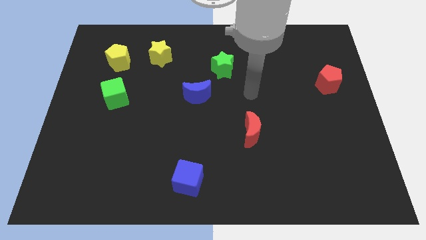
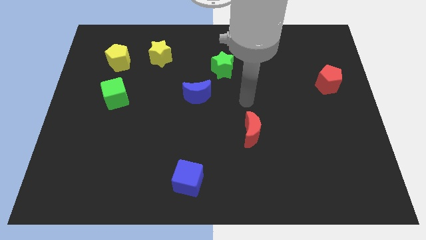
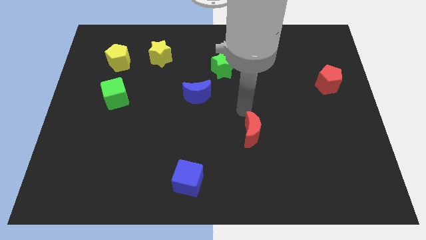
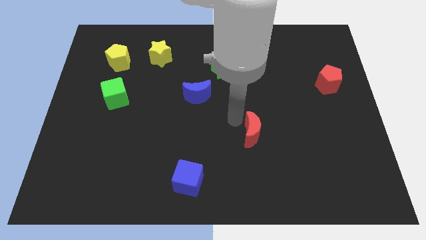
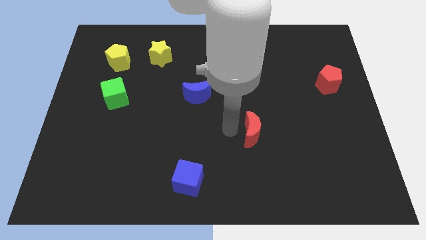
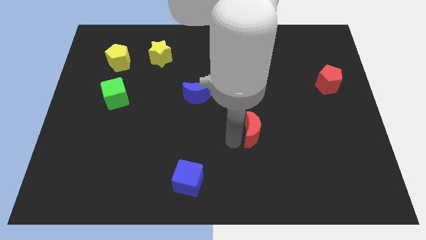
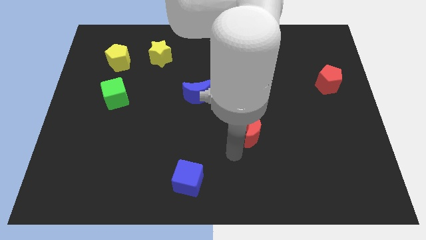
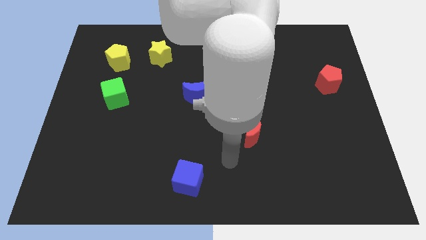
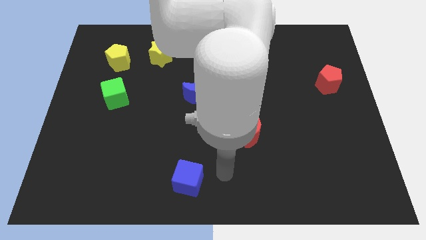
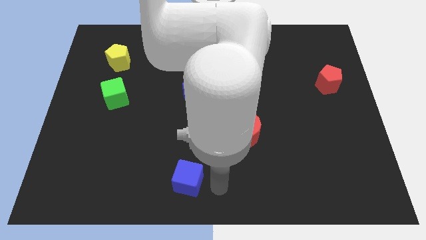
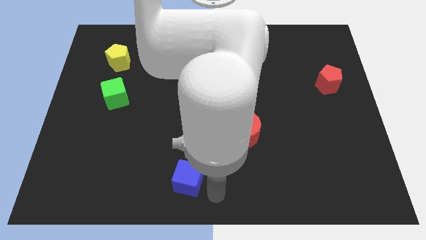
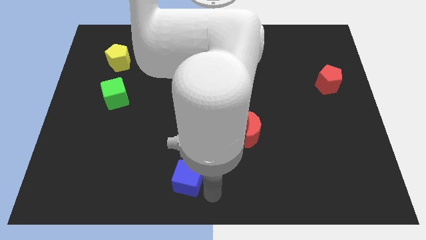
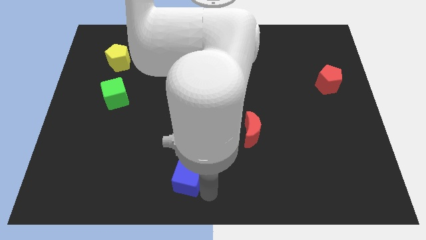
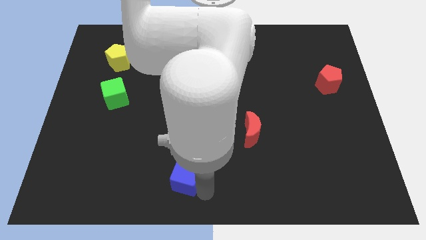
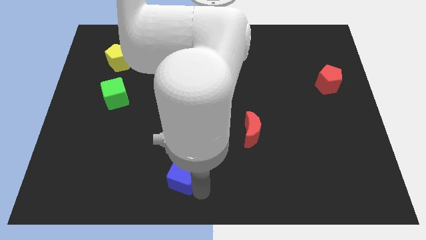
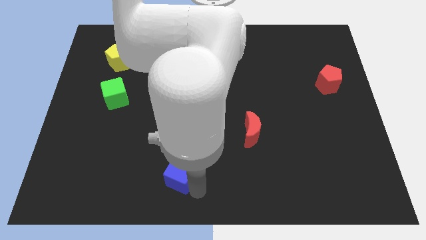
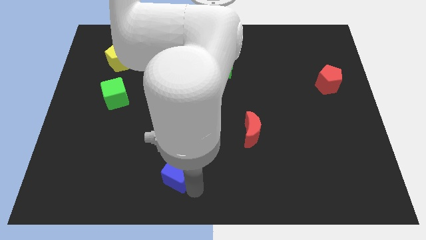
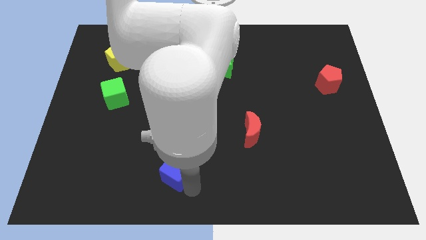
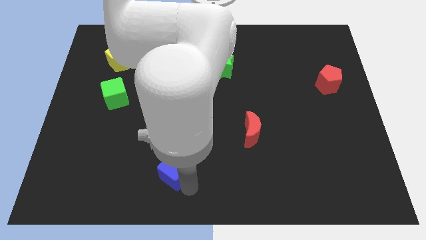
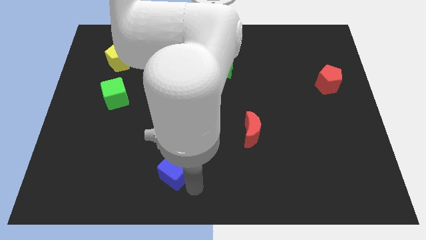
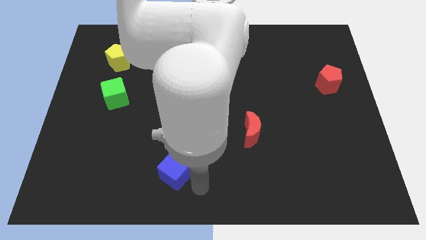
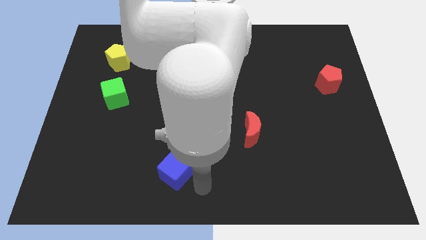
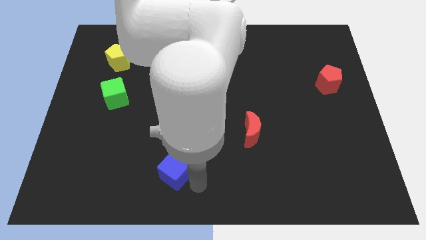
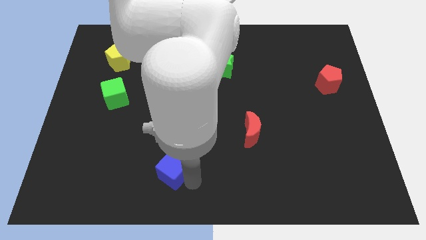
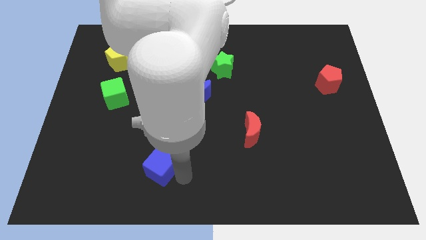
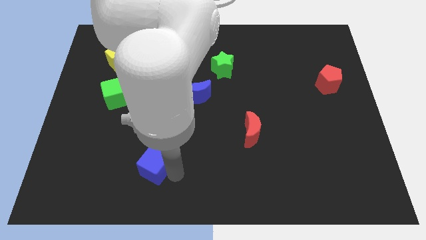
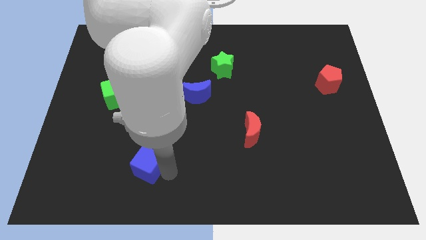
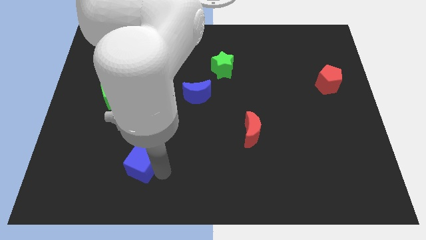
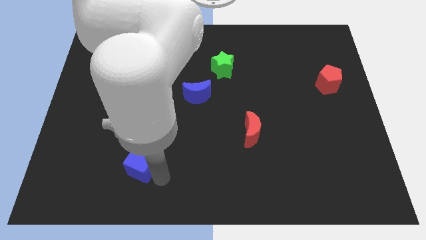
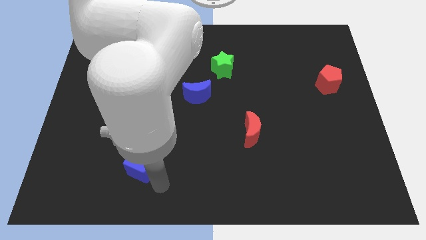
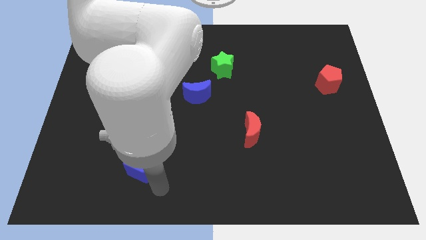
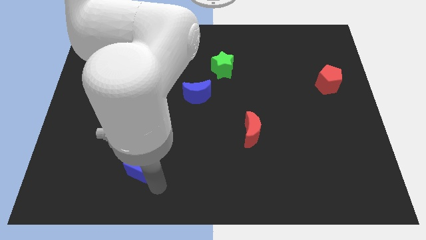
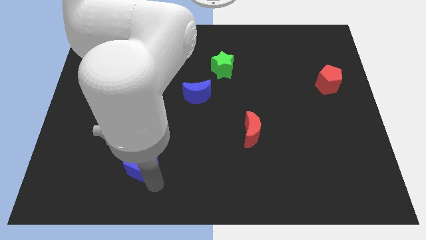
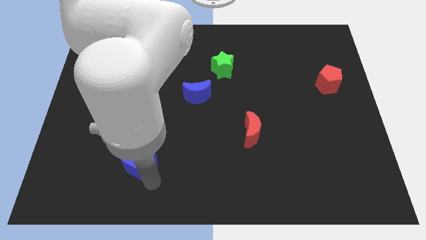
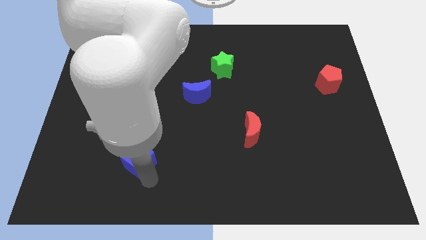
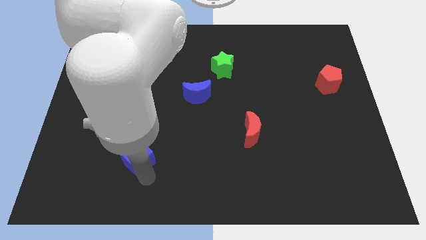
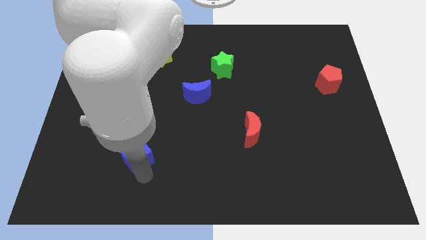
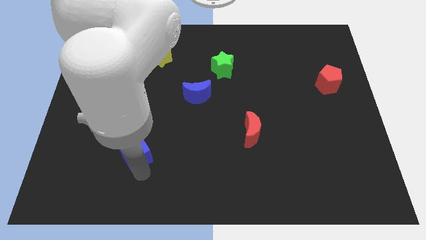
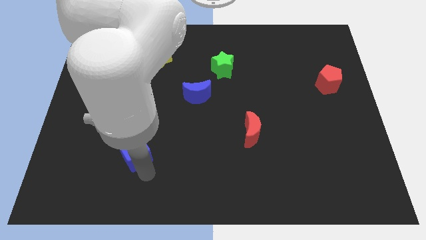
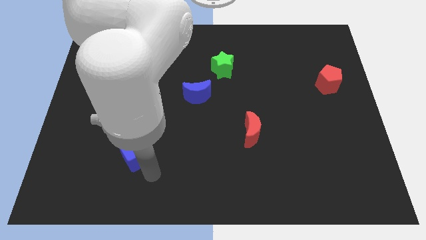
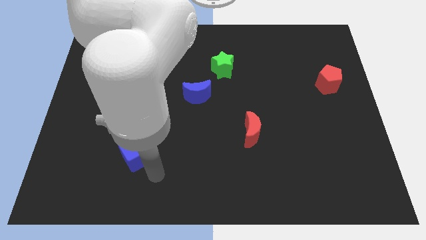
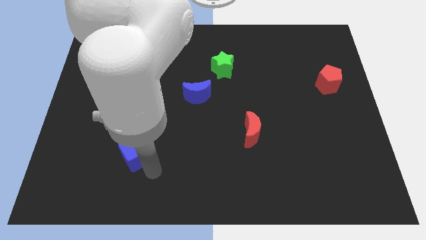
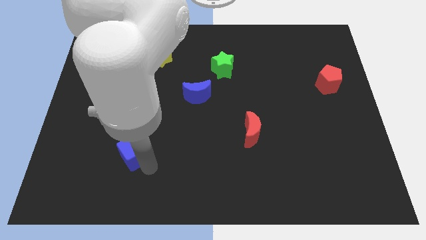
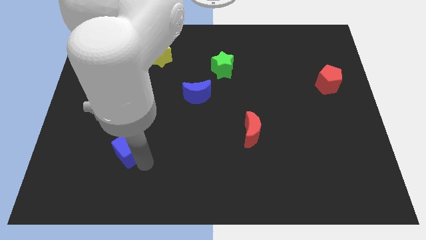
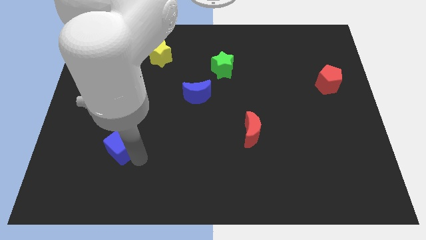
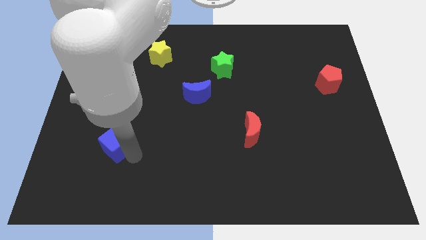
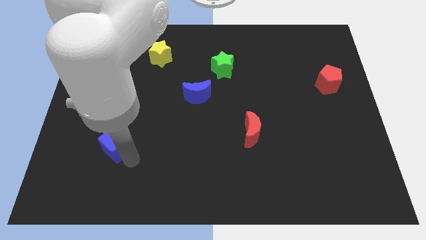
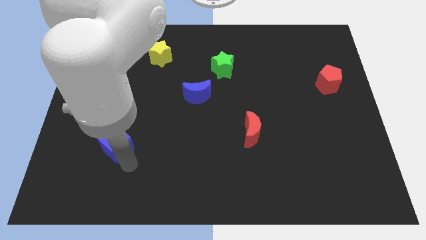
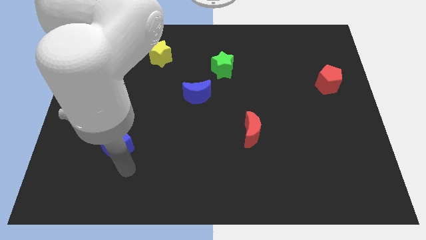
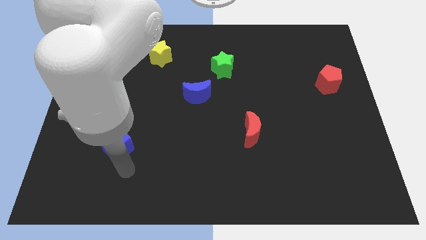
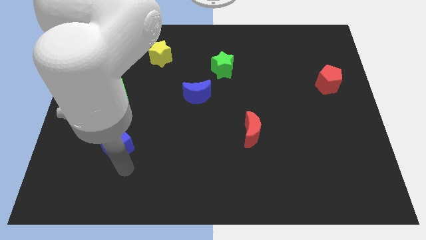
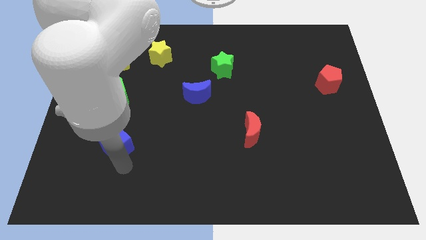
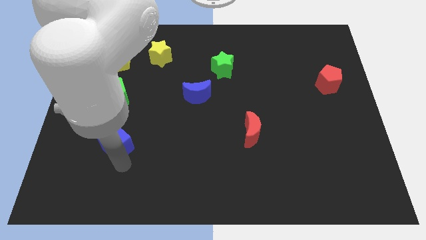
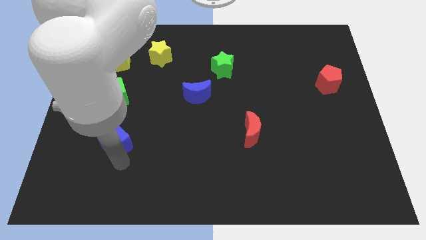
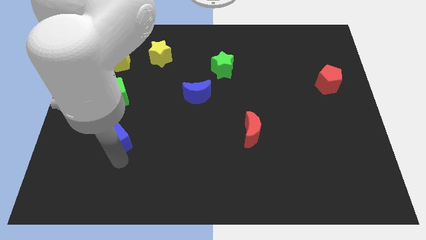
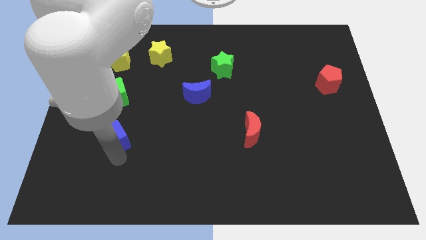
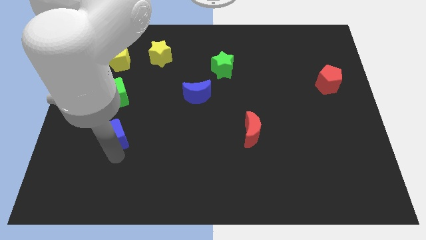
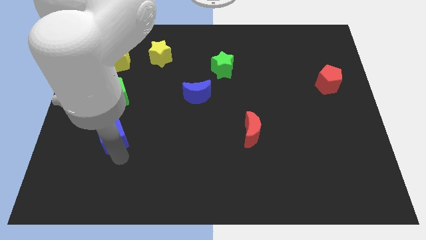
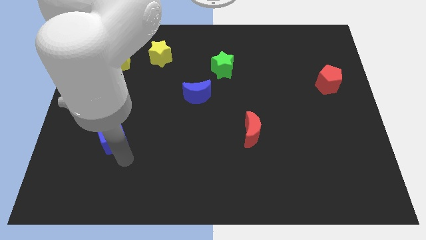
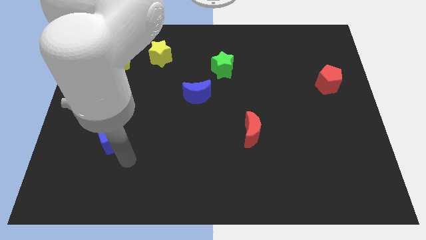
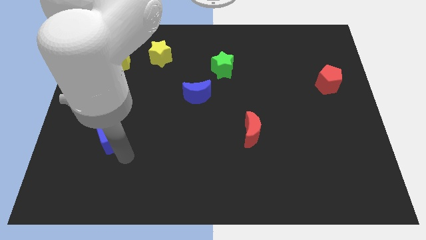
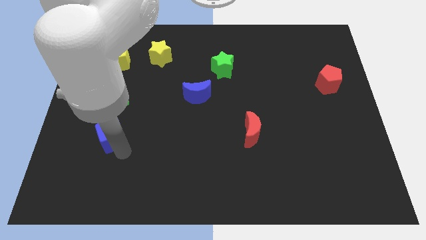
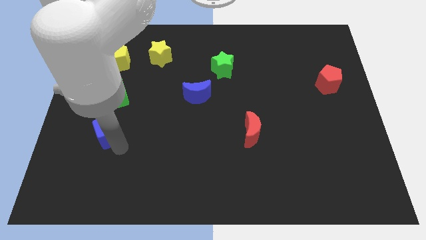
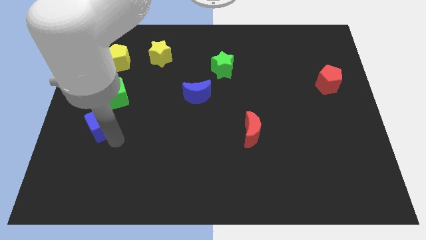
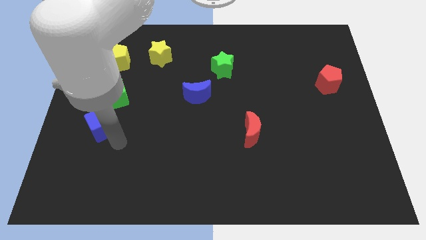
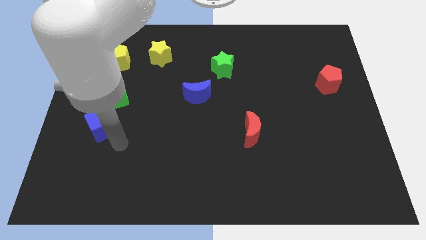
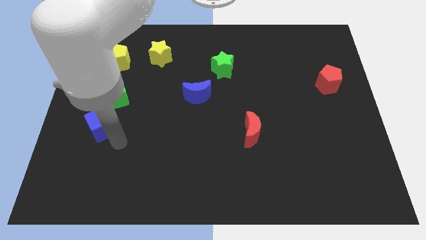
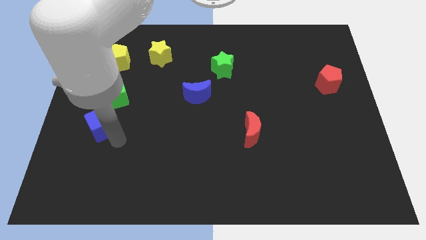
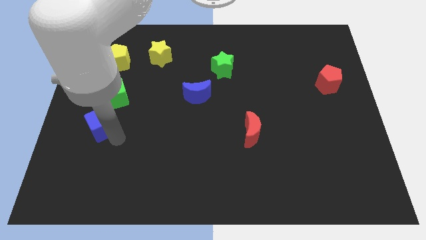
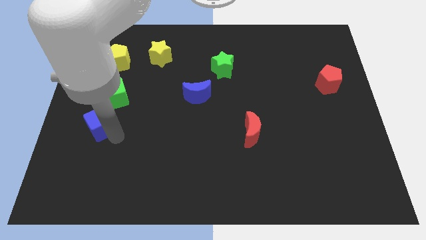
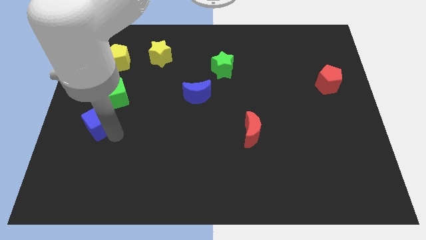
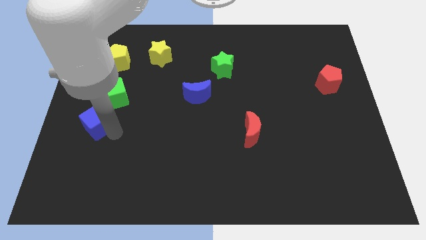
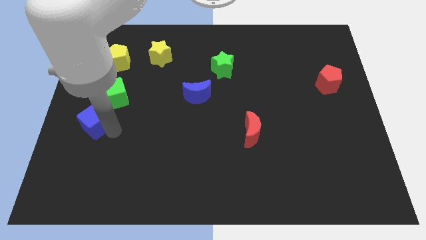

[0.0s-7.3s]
move the blue cube to the center left
